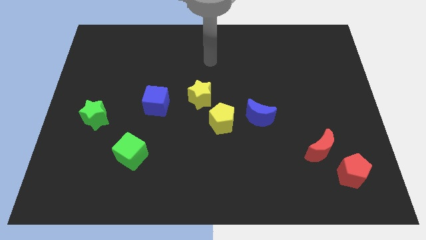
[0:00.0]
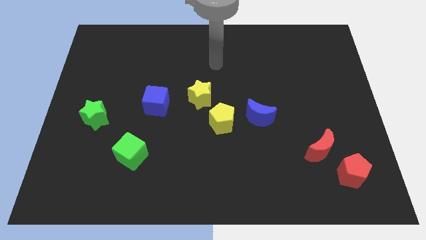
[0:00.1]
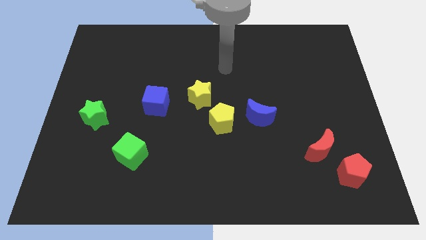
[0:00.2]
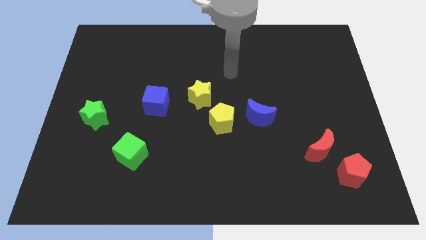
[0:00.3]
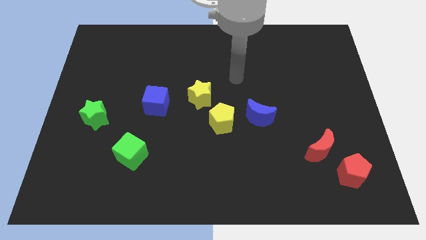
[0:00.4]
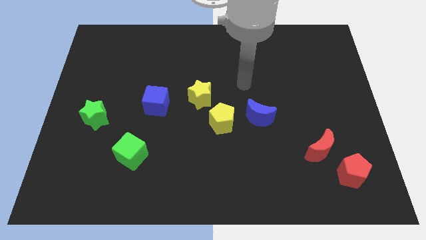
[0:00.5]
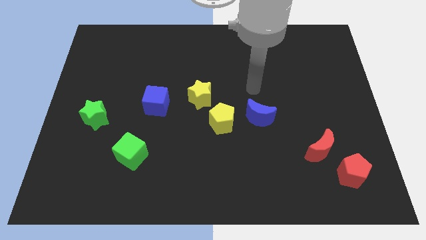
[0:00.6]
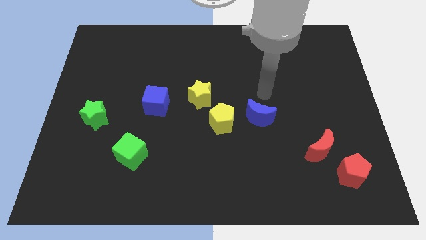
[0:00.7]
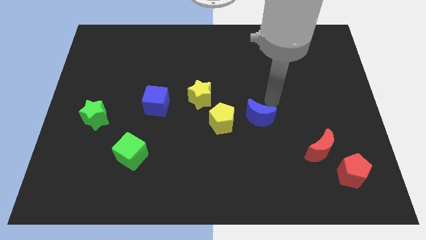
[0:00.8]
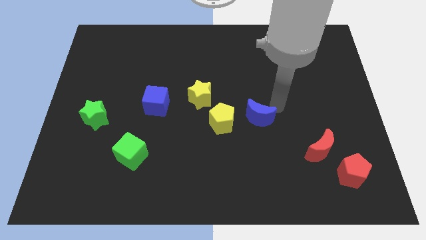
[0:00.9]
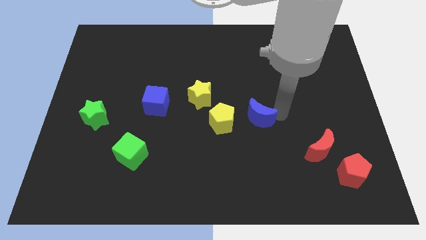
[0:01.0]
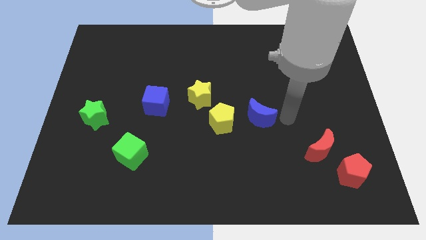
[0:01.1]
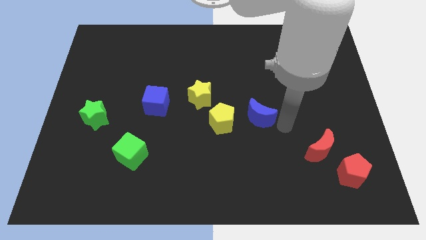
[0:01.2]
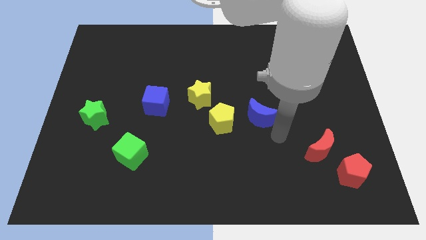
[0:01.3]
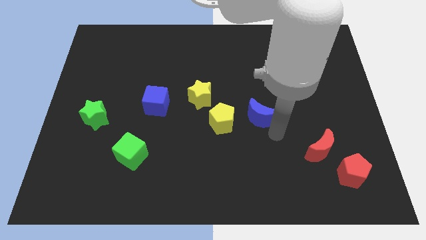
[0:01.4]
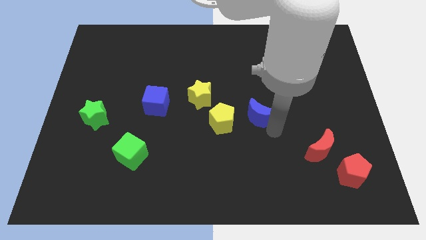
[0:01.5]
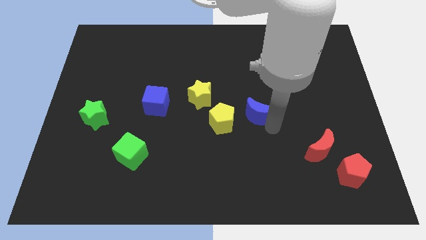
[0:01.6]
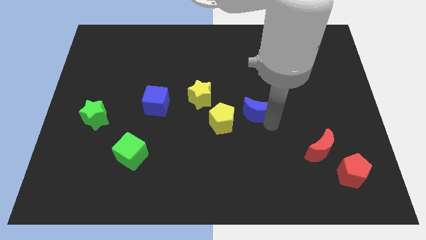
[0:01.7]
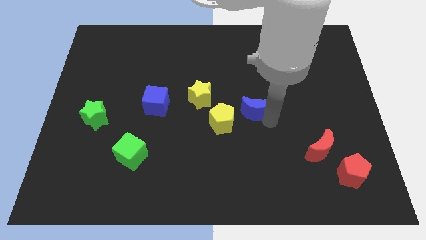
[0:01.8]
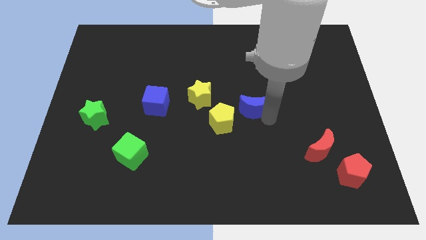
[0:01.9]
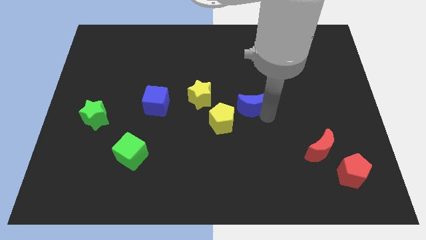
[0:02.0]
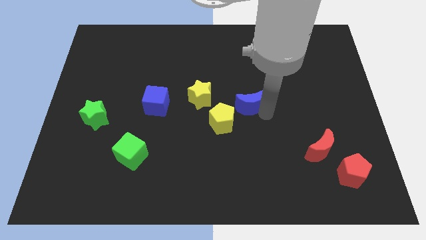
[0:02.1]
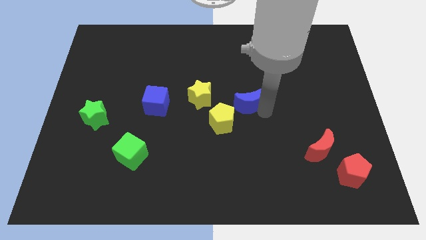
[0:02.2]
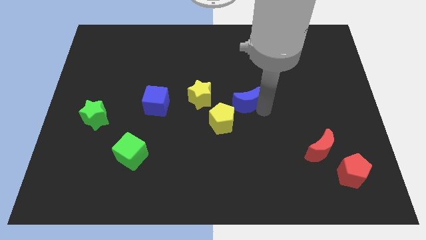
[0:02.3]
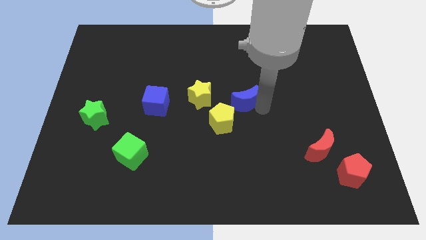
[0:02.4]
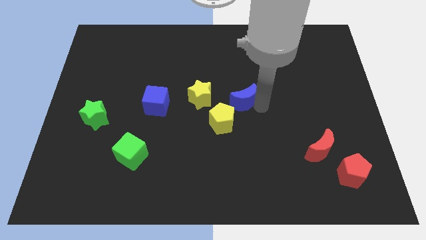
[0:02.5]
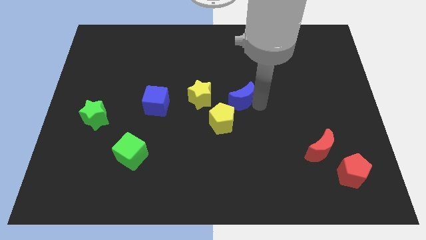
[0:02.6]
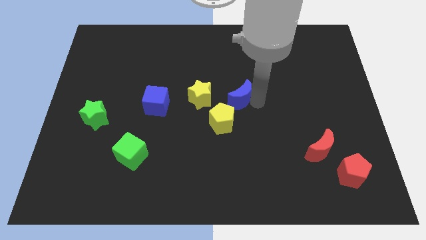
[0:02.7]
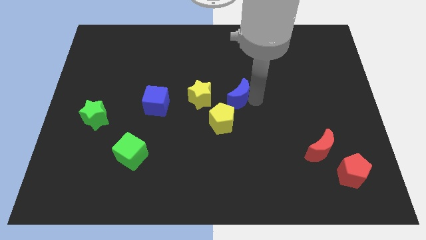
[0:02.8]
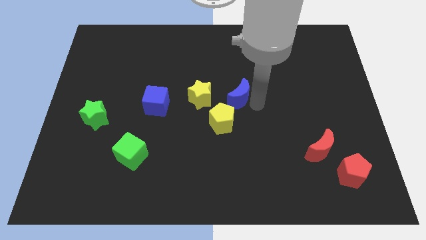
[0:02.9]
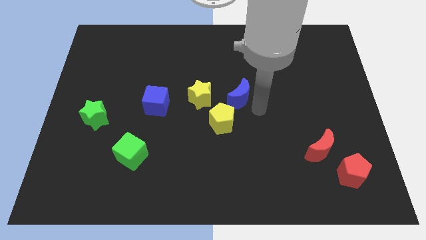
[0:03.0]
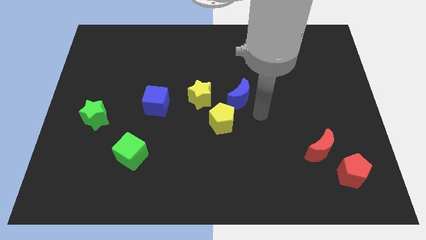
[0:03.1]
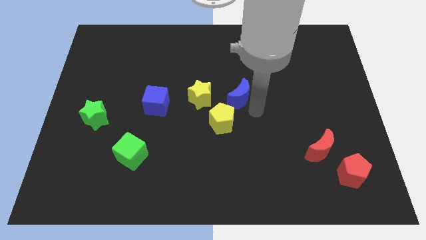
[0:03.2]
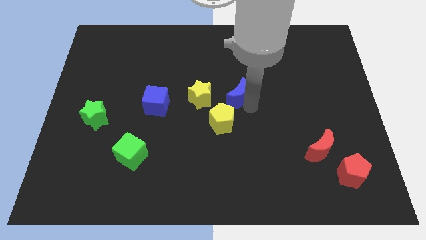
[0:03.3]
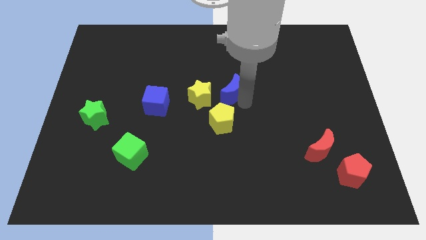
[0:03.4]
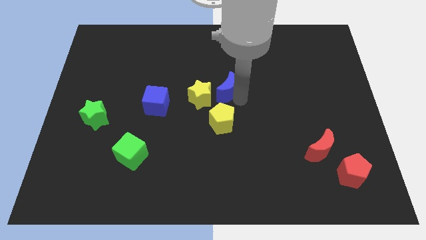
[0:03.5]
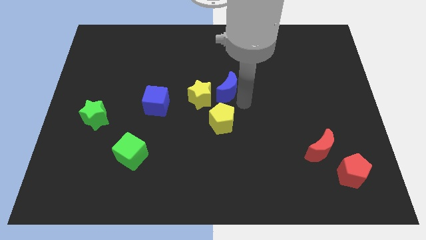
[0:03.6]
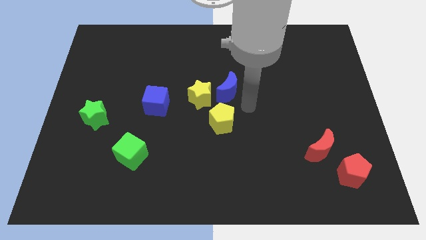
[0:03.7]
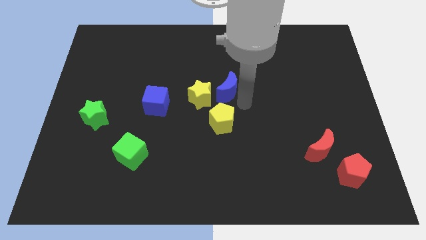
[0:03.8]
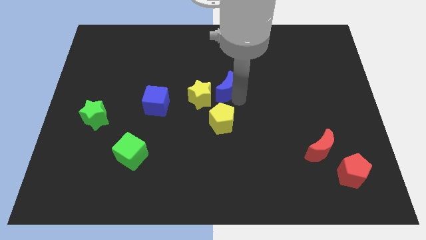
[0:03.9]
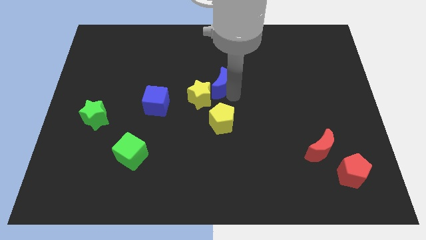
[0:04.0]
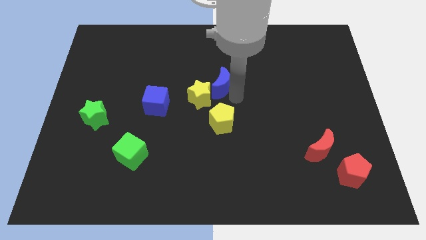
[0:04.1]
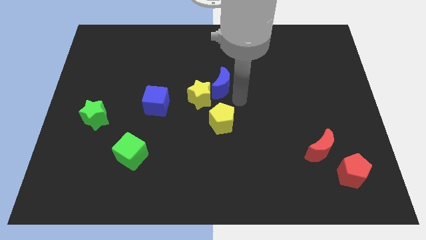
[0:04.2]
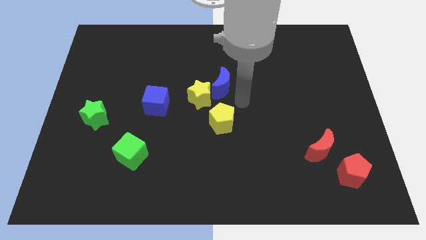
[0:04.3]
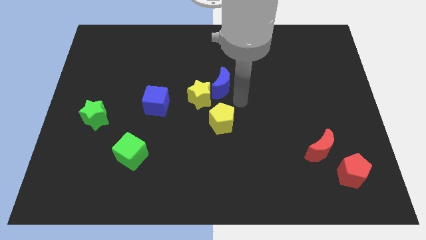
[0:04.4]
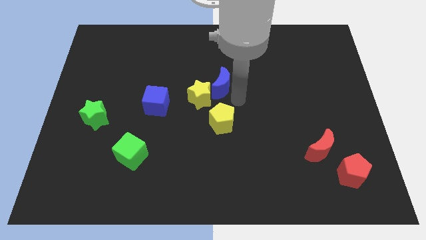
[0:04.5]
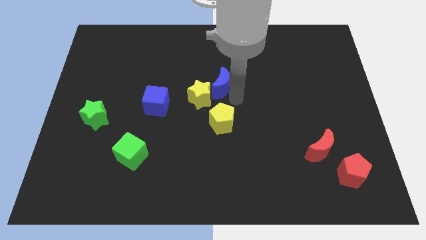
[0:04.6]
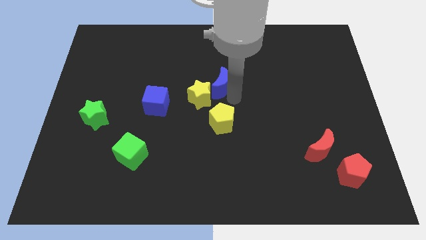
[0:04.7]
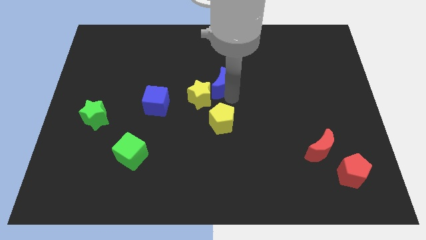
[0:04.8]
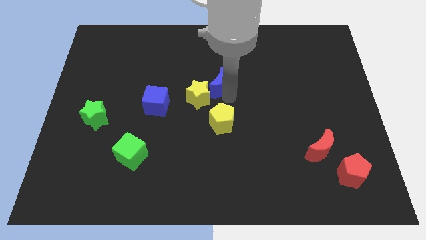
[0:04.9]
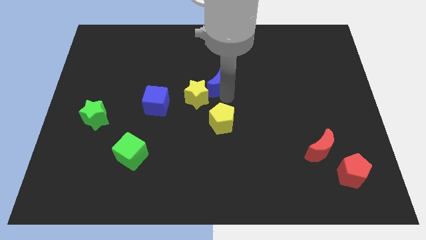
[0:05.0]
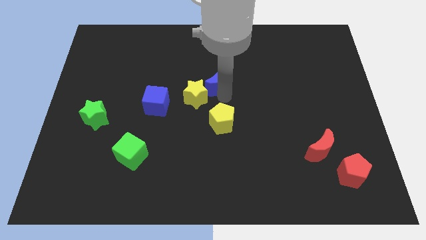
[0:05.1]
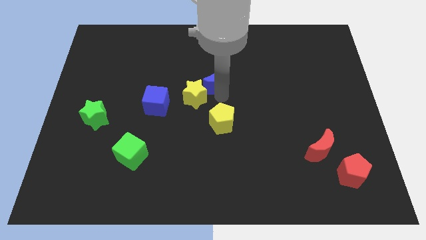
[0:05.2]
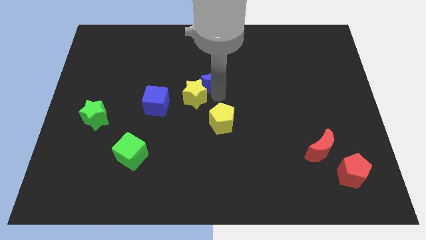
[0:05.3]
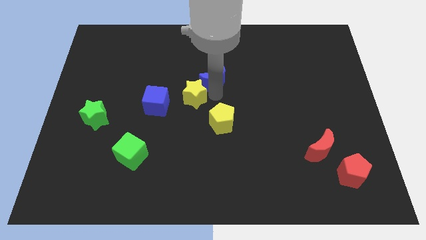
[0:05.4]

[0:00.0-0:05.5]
move the blue moon above the yellow star

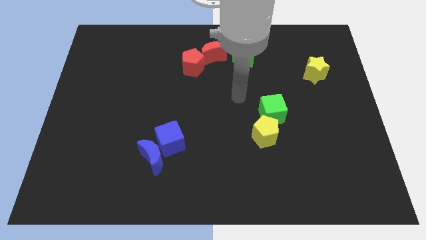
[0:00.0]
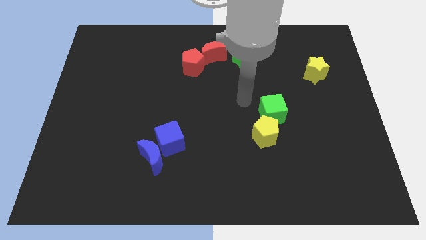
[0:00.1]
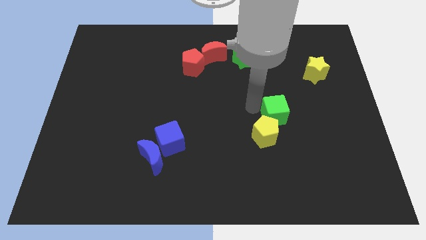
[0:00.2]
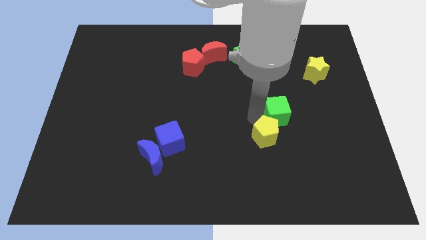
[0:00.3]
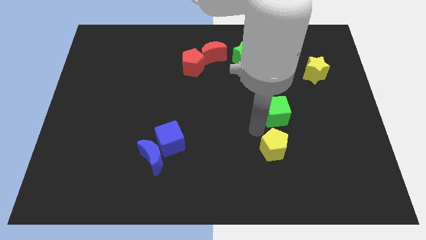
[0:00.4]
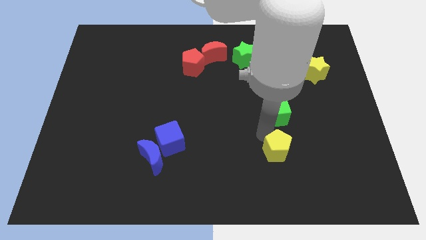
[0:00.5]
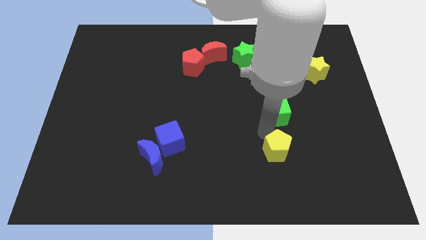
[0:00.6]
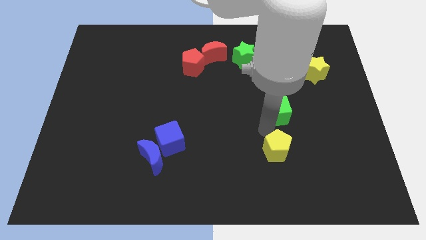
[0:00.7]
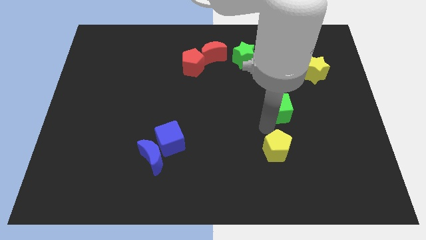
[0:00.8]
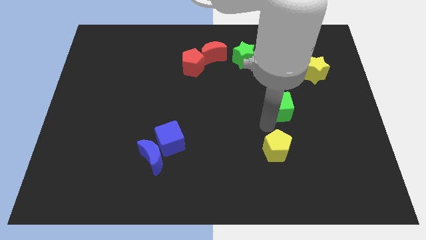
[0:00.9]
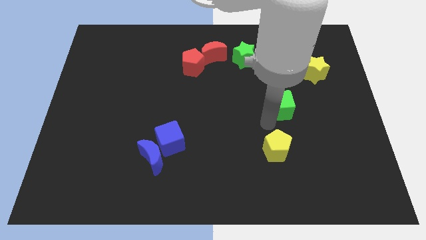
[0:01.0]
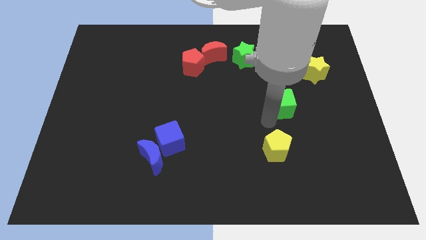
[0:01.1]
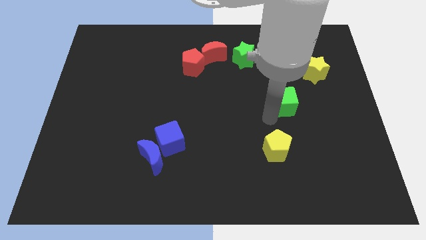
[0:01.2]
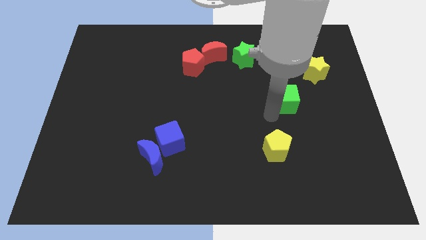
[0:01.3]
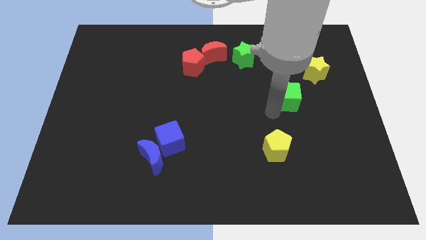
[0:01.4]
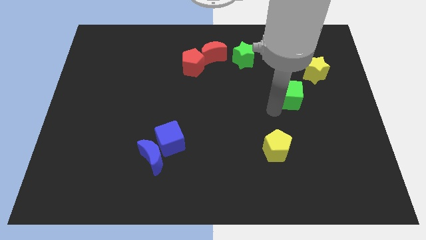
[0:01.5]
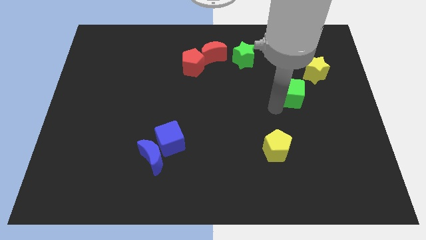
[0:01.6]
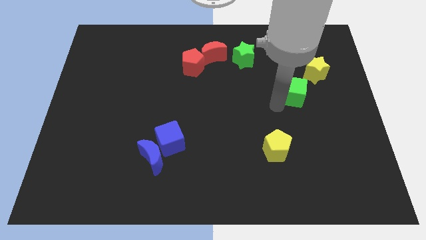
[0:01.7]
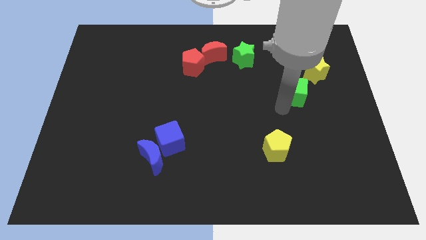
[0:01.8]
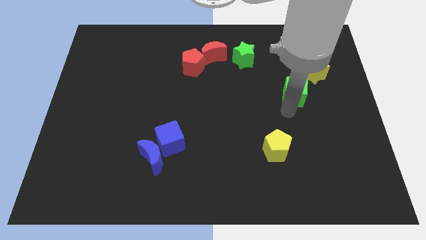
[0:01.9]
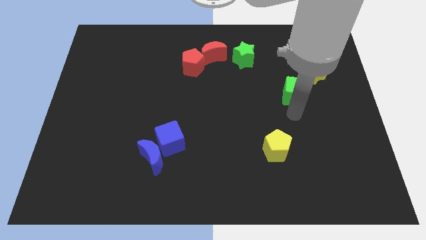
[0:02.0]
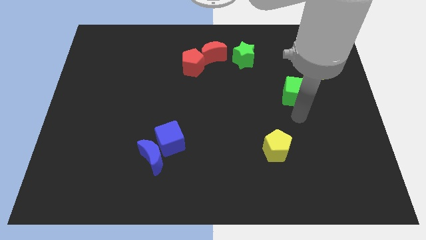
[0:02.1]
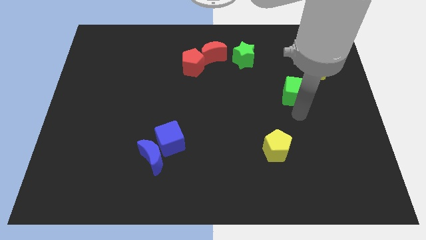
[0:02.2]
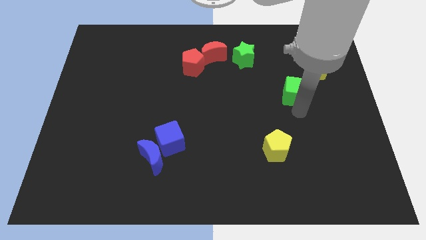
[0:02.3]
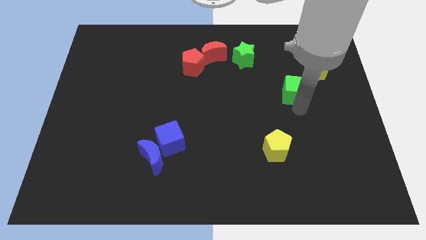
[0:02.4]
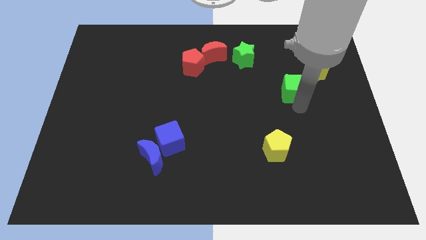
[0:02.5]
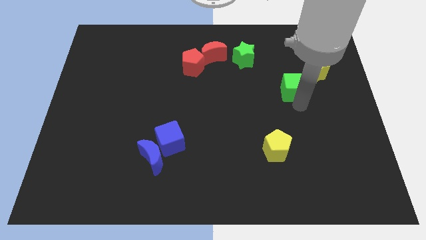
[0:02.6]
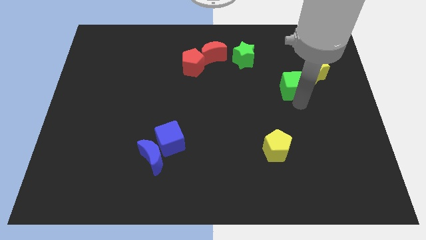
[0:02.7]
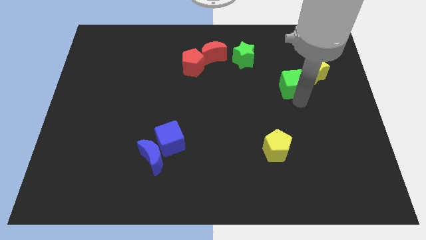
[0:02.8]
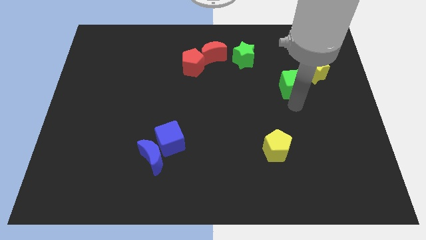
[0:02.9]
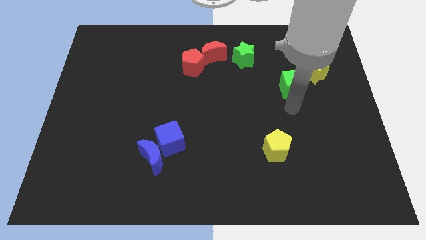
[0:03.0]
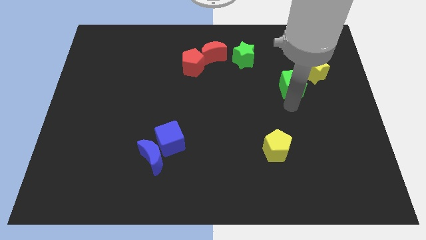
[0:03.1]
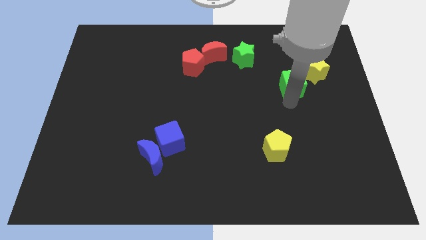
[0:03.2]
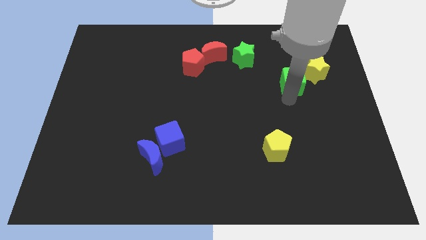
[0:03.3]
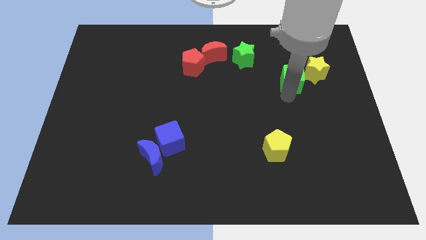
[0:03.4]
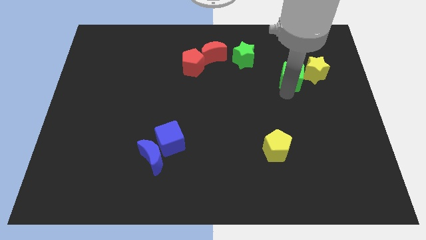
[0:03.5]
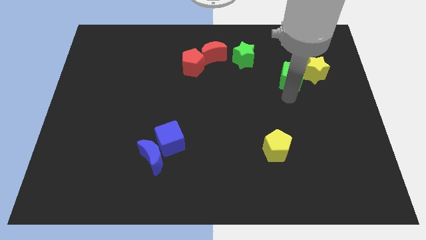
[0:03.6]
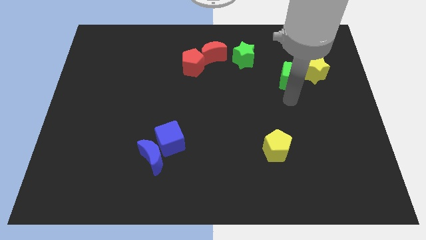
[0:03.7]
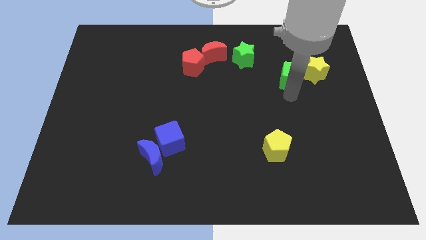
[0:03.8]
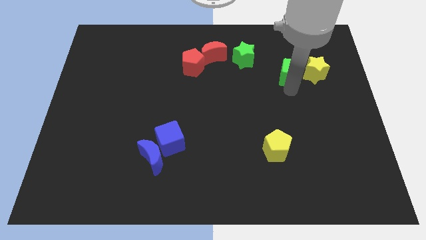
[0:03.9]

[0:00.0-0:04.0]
slide the green cube to the top left side of the yellow star
